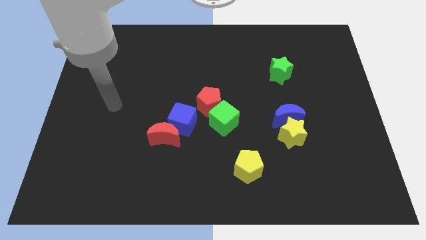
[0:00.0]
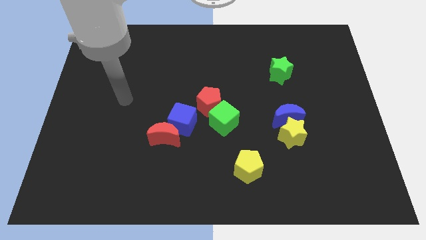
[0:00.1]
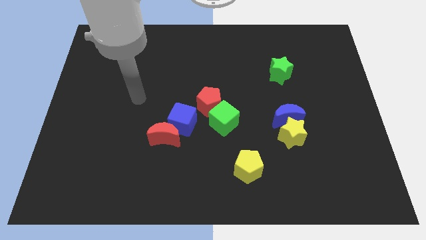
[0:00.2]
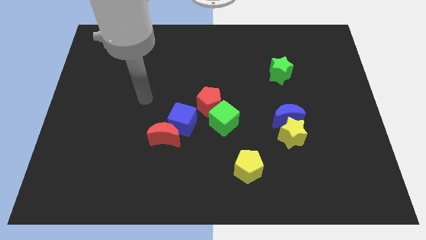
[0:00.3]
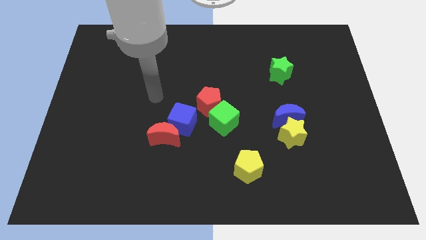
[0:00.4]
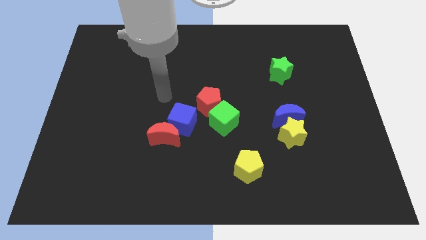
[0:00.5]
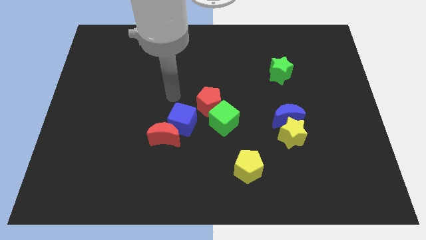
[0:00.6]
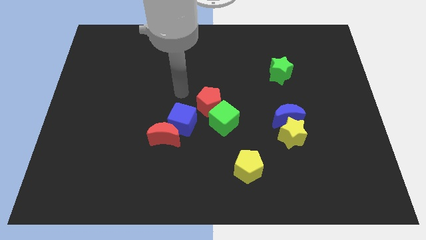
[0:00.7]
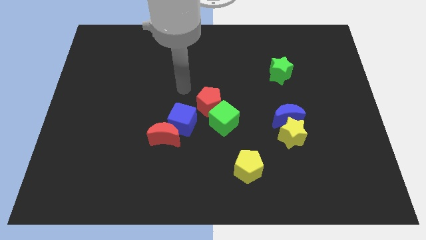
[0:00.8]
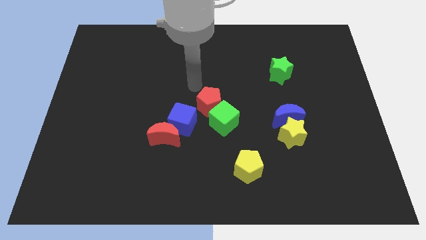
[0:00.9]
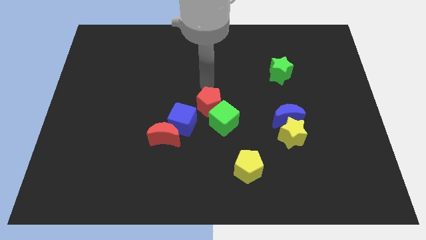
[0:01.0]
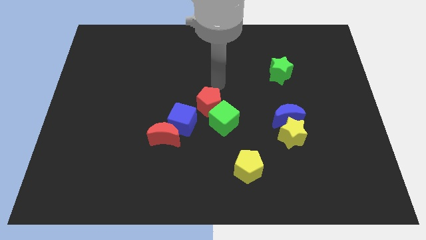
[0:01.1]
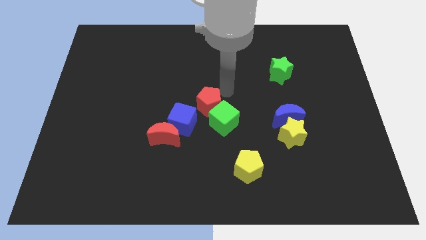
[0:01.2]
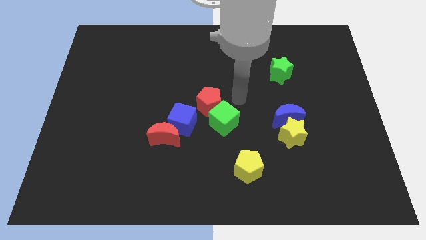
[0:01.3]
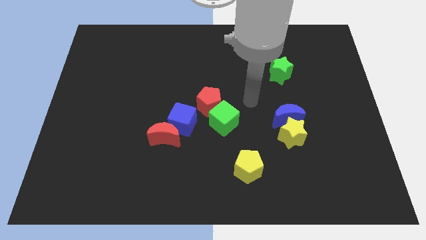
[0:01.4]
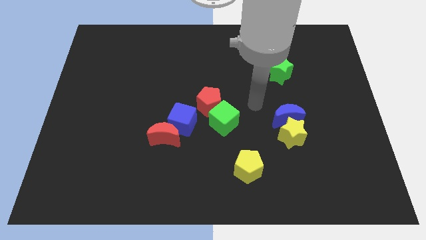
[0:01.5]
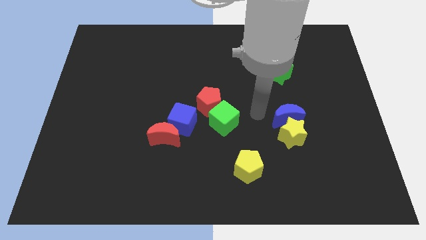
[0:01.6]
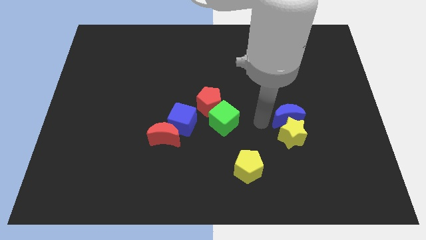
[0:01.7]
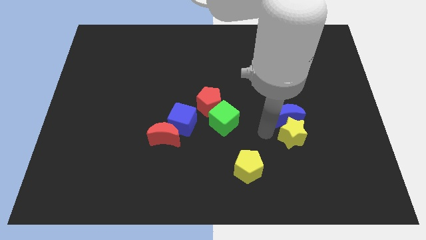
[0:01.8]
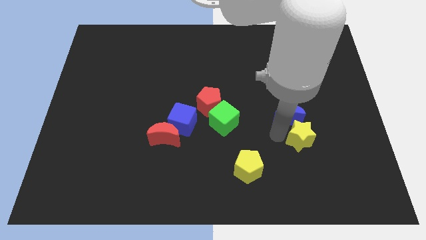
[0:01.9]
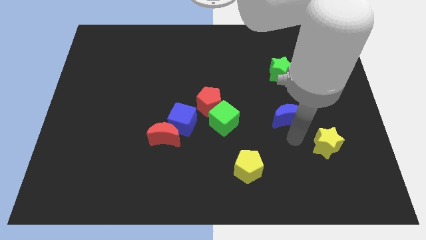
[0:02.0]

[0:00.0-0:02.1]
separate the blue moon from the yellow star

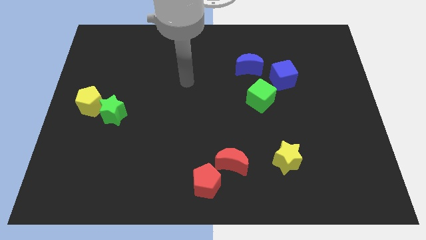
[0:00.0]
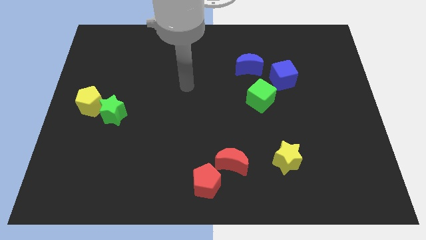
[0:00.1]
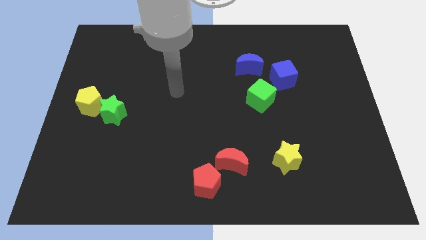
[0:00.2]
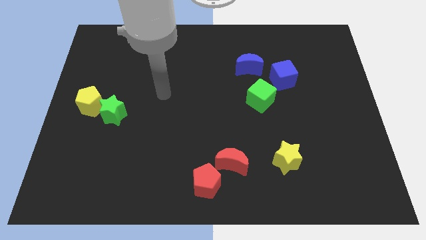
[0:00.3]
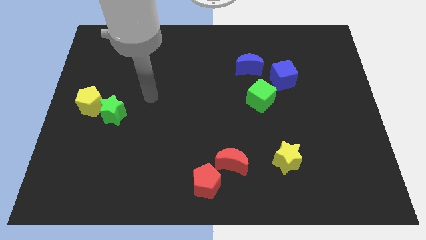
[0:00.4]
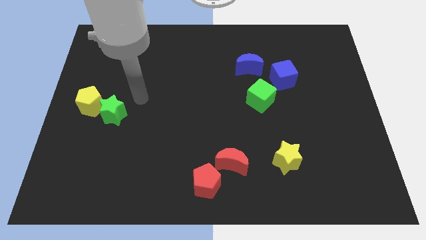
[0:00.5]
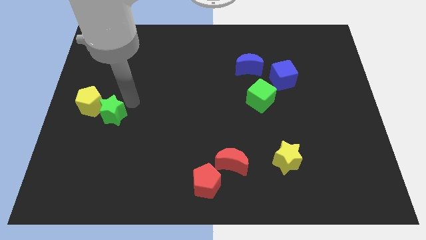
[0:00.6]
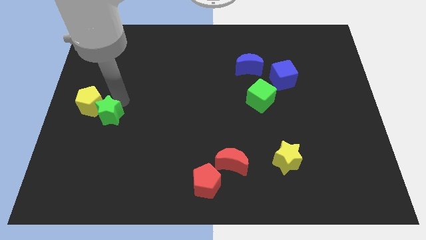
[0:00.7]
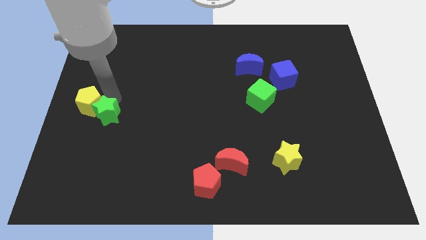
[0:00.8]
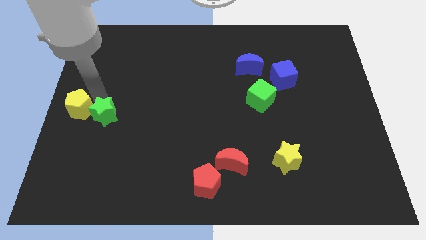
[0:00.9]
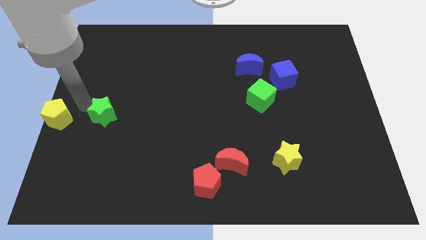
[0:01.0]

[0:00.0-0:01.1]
move the green star away from the yellow pentagon

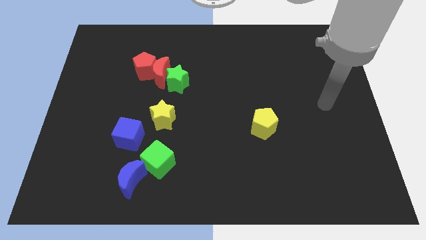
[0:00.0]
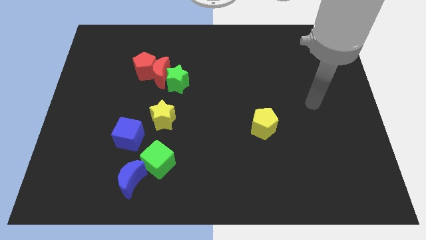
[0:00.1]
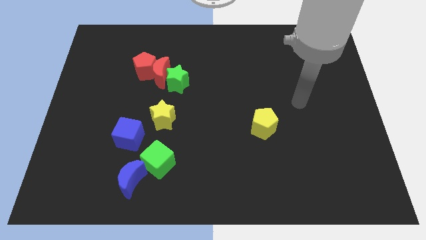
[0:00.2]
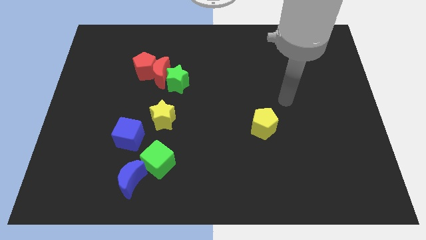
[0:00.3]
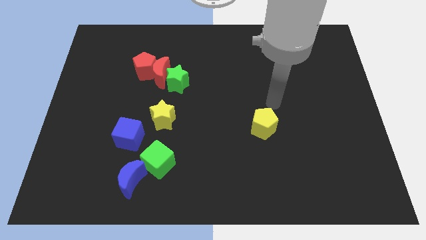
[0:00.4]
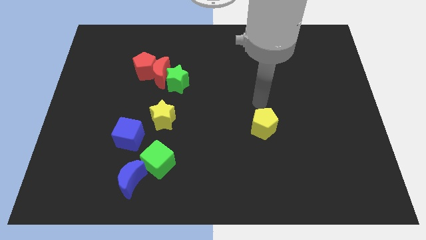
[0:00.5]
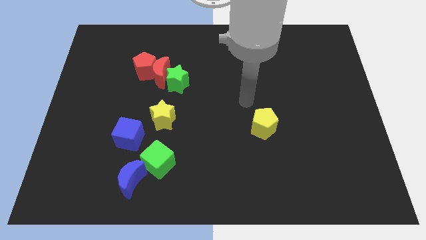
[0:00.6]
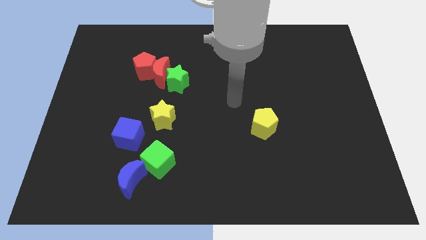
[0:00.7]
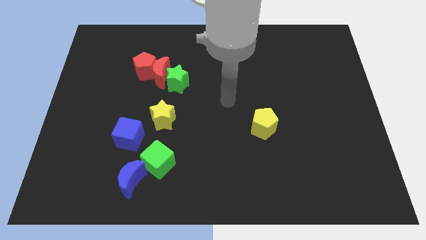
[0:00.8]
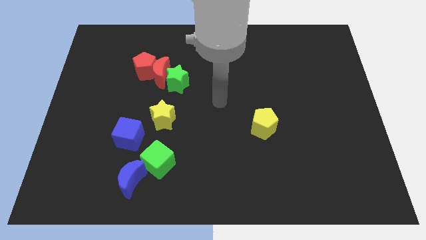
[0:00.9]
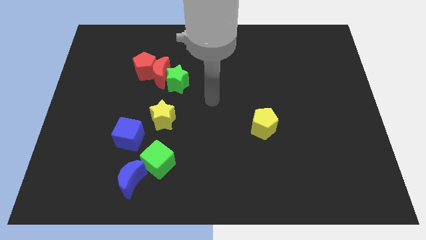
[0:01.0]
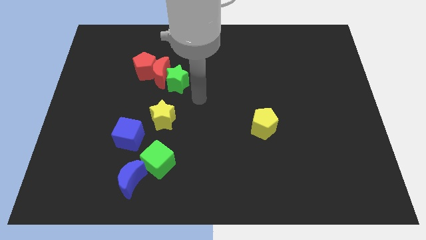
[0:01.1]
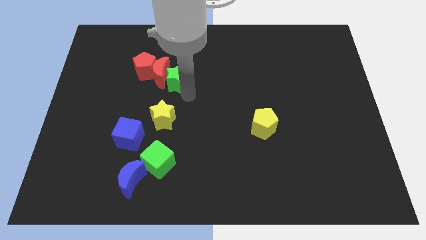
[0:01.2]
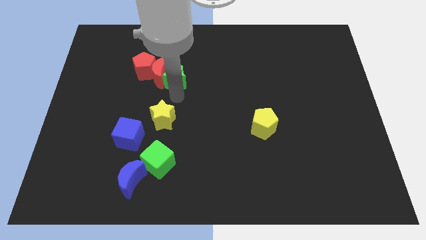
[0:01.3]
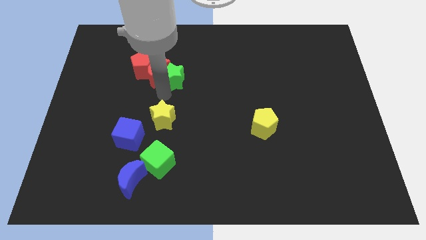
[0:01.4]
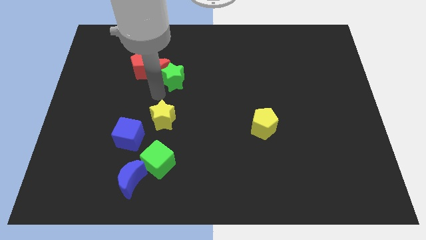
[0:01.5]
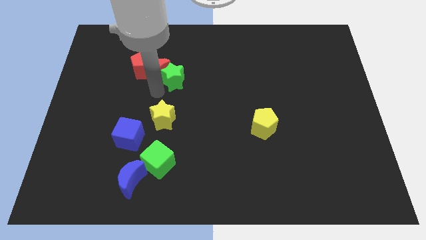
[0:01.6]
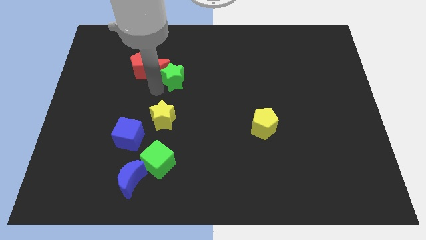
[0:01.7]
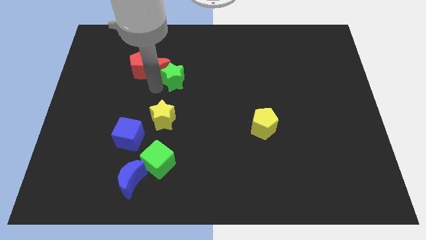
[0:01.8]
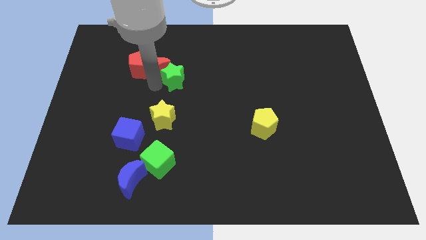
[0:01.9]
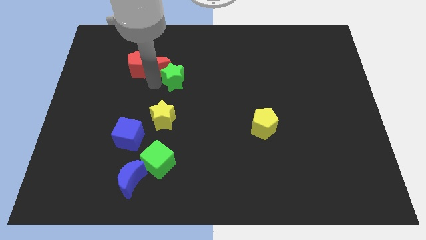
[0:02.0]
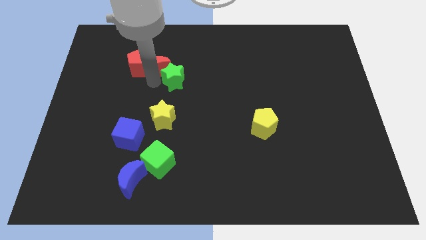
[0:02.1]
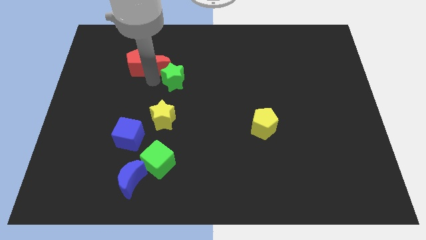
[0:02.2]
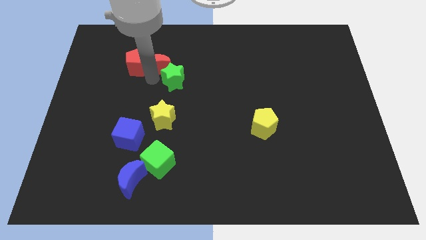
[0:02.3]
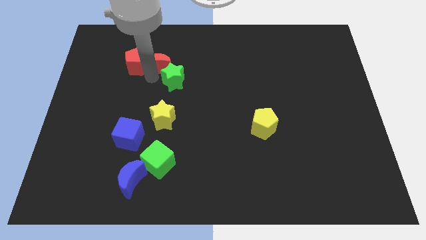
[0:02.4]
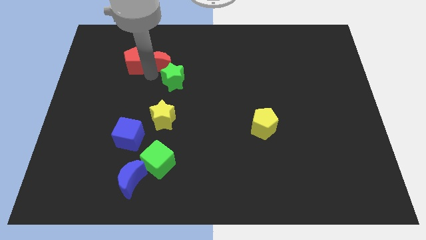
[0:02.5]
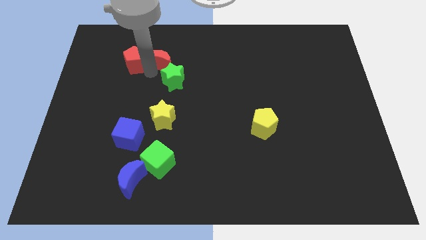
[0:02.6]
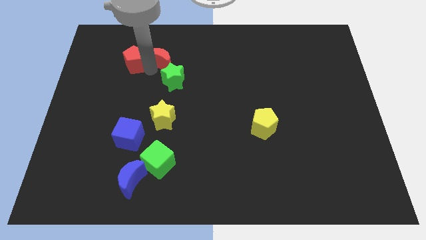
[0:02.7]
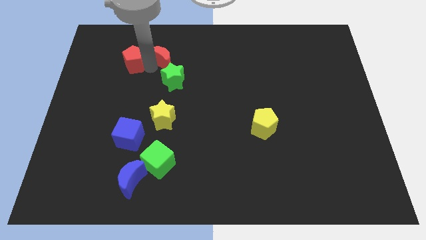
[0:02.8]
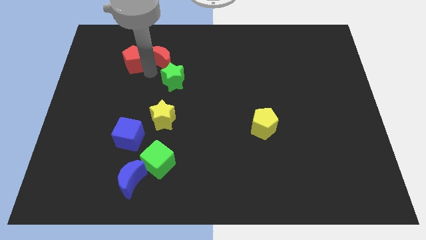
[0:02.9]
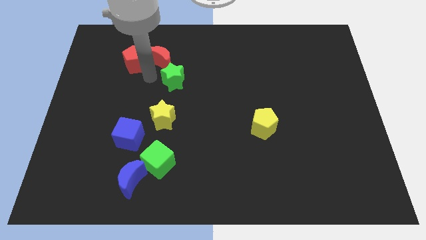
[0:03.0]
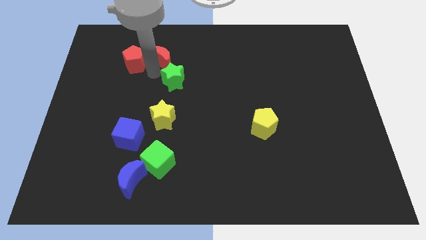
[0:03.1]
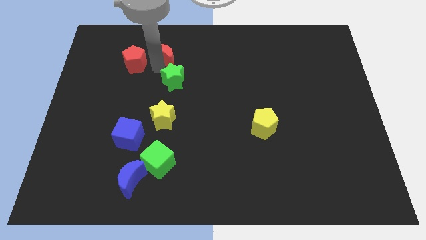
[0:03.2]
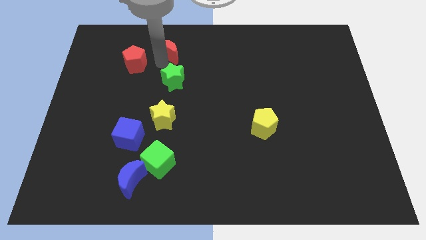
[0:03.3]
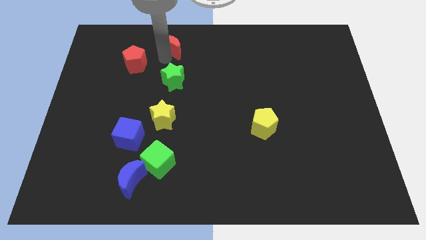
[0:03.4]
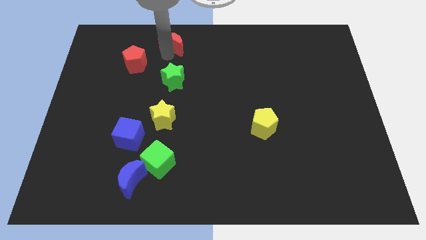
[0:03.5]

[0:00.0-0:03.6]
pull the red moon apart from the red pentagon and green star

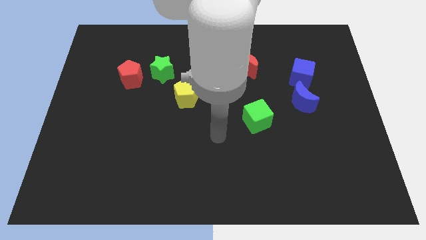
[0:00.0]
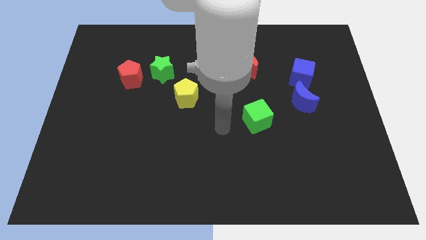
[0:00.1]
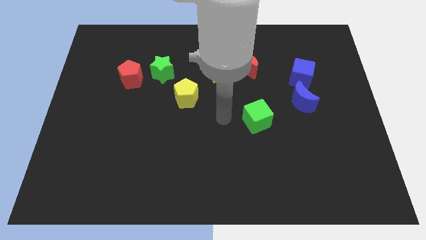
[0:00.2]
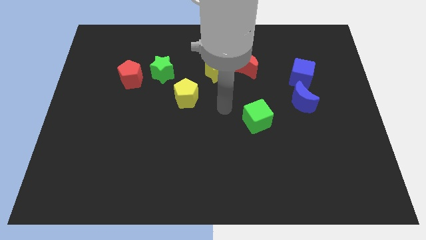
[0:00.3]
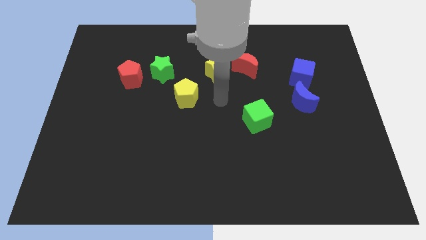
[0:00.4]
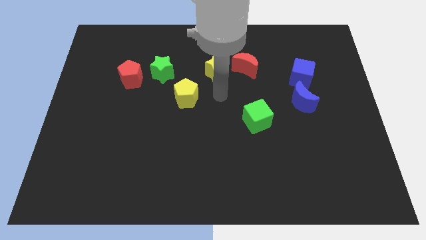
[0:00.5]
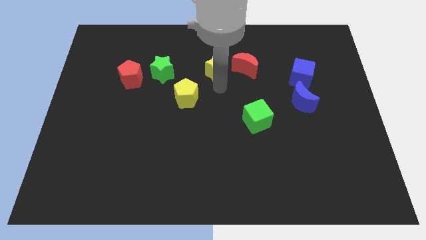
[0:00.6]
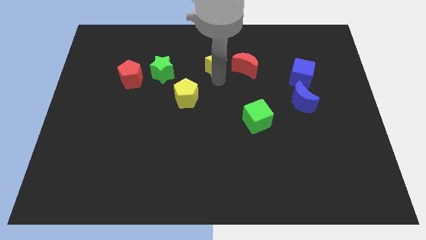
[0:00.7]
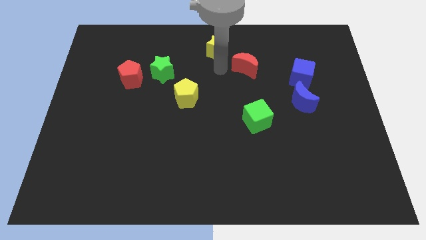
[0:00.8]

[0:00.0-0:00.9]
separate the red moon from the yellow star

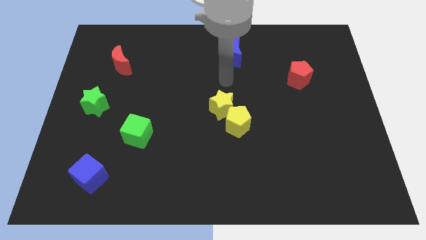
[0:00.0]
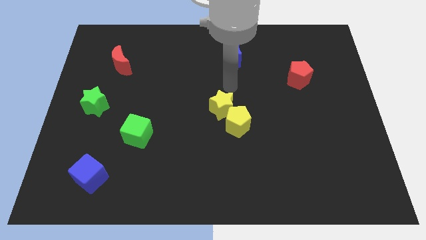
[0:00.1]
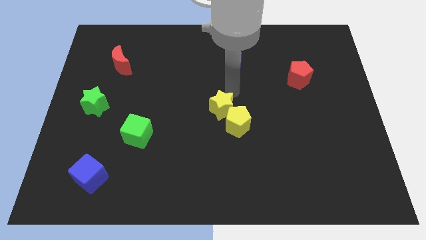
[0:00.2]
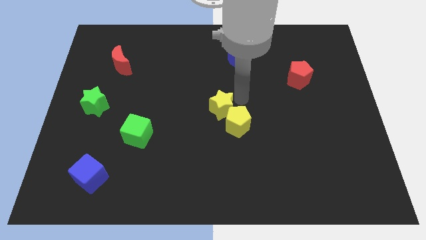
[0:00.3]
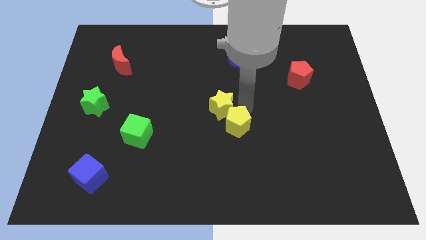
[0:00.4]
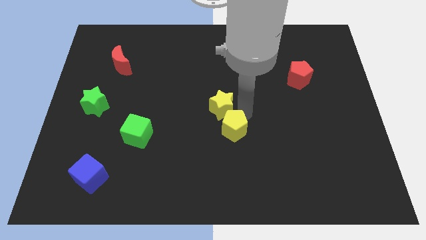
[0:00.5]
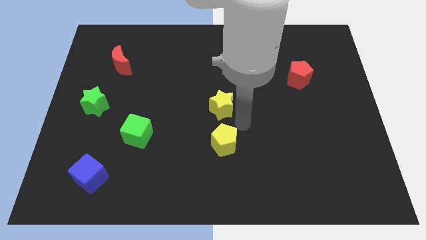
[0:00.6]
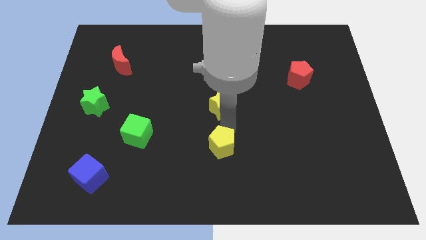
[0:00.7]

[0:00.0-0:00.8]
separate the yellow star from the yellow pentagon

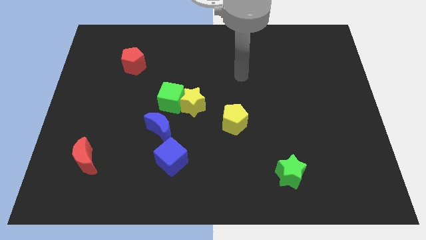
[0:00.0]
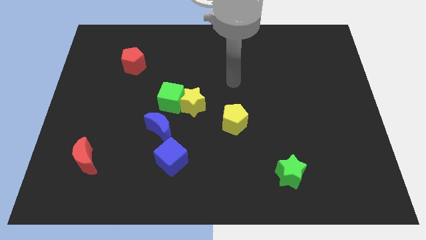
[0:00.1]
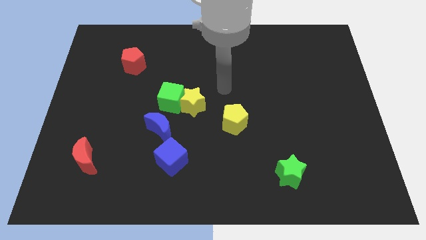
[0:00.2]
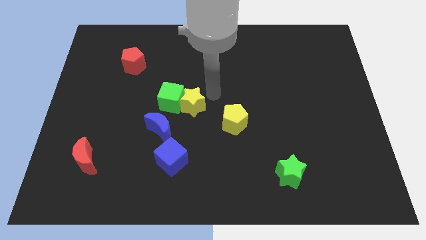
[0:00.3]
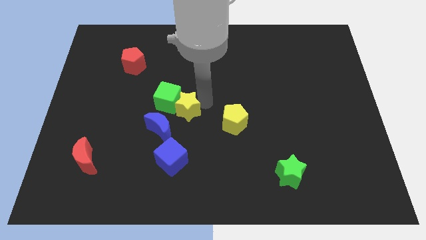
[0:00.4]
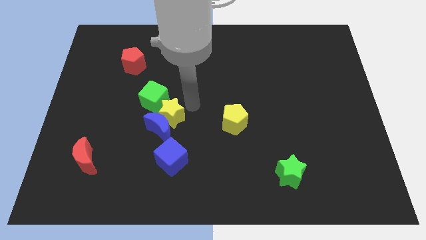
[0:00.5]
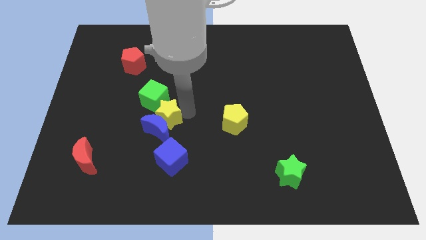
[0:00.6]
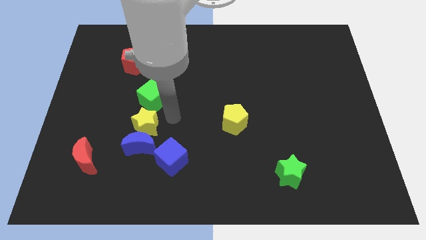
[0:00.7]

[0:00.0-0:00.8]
move the green cube away from the yellow star and blue moon
